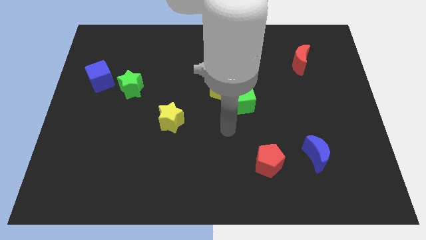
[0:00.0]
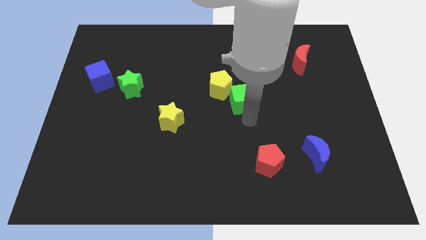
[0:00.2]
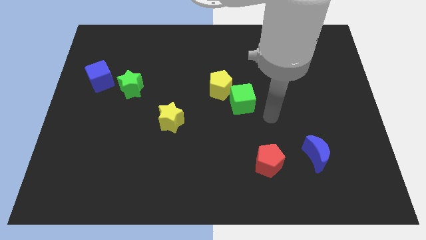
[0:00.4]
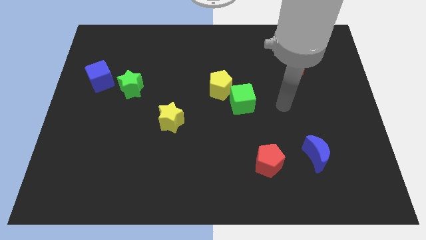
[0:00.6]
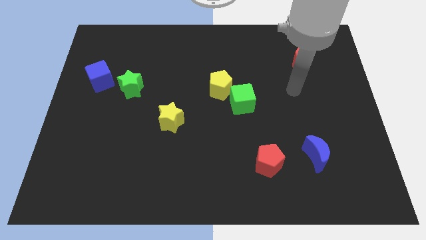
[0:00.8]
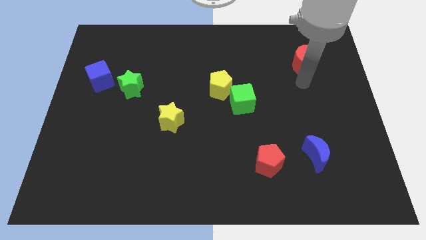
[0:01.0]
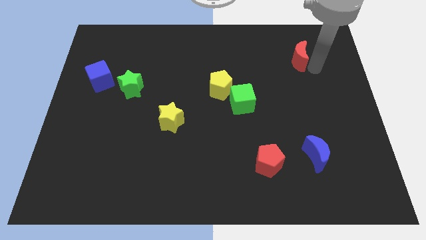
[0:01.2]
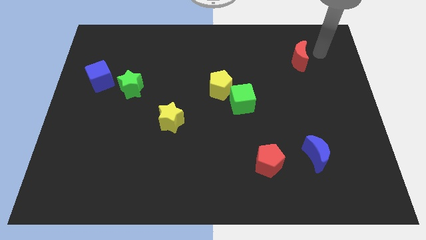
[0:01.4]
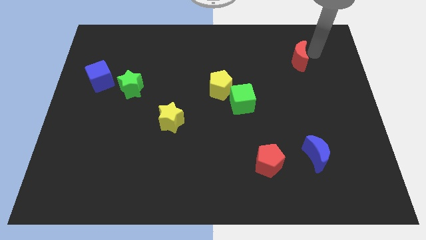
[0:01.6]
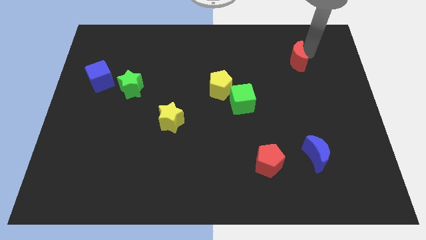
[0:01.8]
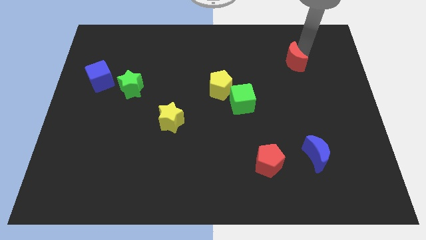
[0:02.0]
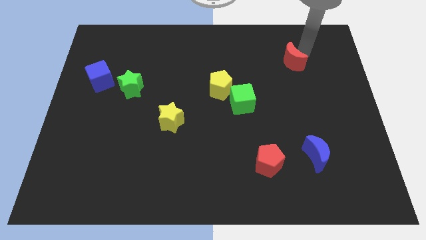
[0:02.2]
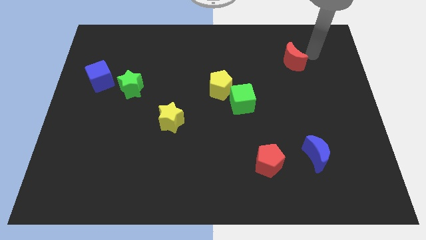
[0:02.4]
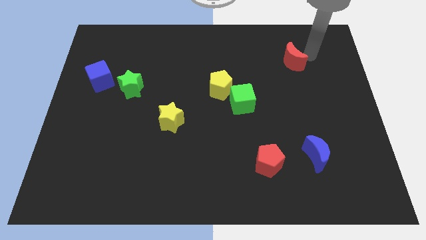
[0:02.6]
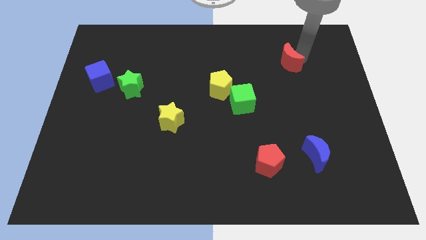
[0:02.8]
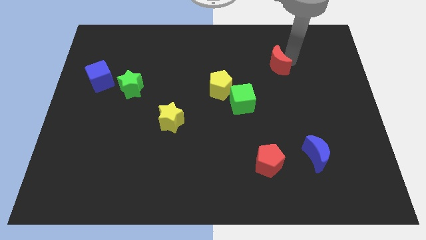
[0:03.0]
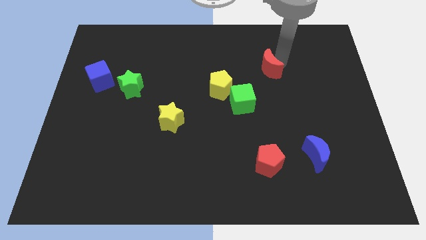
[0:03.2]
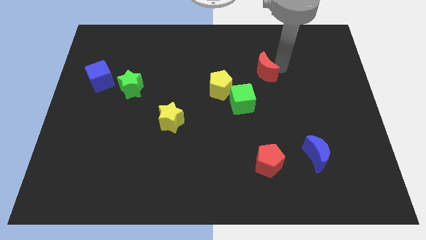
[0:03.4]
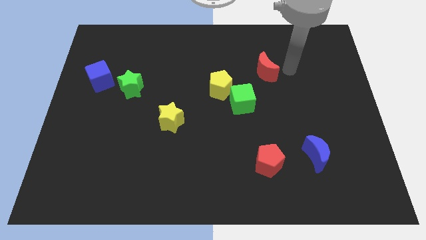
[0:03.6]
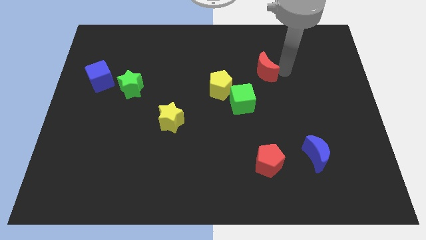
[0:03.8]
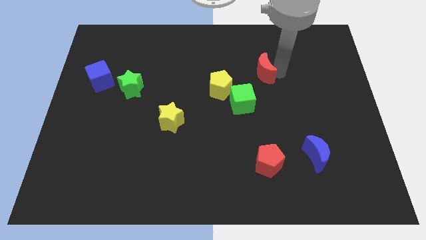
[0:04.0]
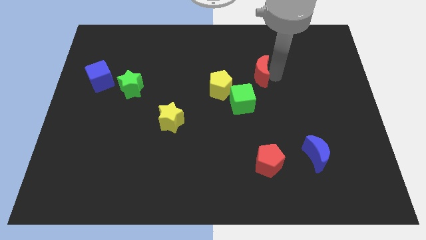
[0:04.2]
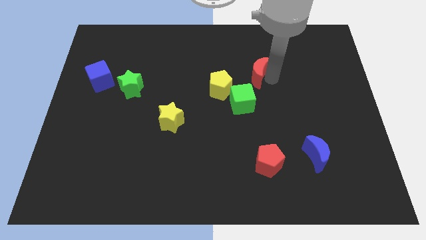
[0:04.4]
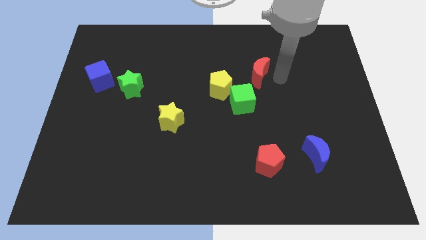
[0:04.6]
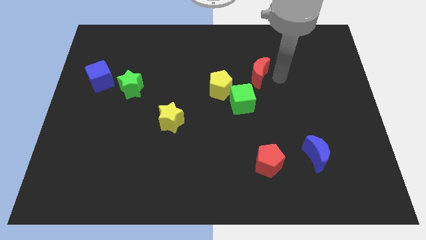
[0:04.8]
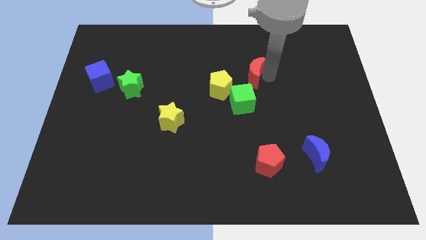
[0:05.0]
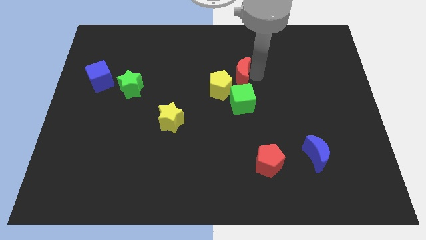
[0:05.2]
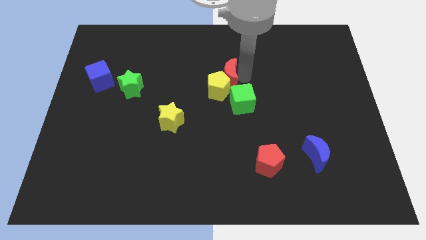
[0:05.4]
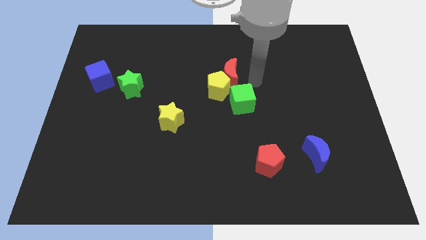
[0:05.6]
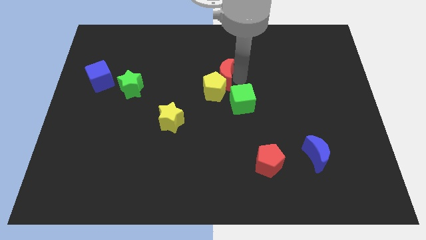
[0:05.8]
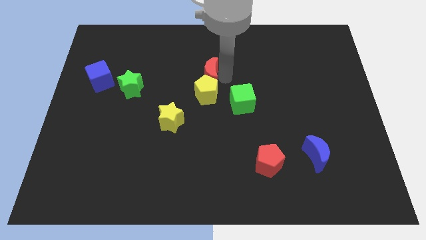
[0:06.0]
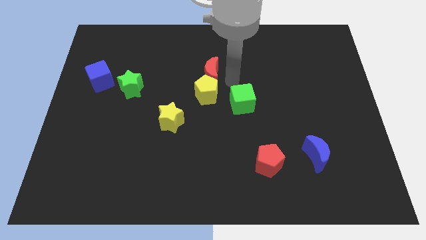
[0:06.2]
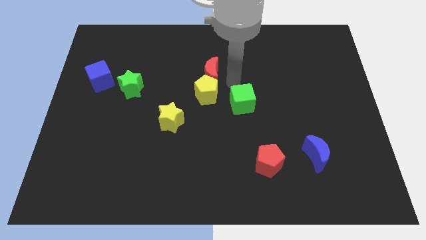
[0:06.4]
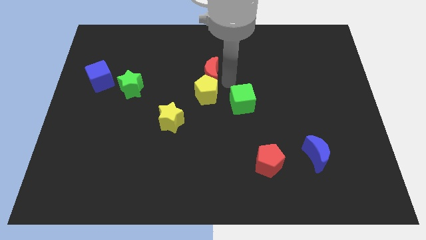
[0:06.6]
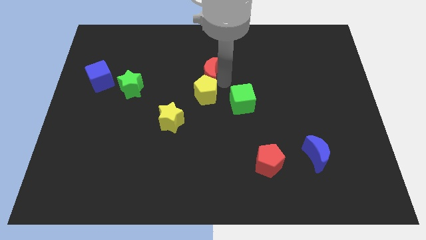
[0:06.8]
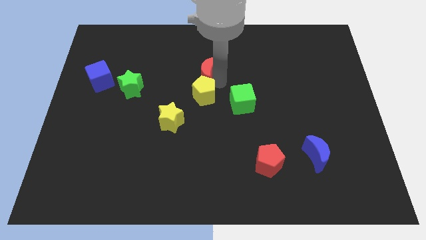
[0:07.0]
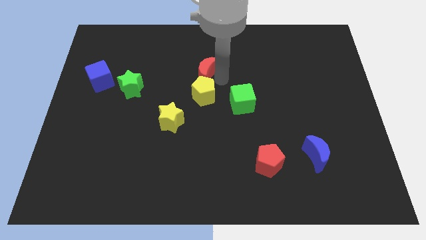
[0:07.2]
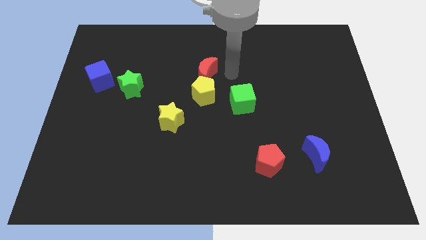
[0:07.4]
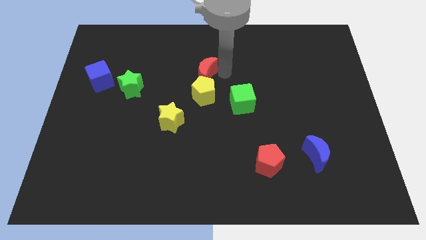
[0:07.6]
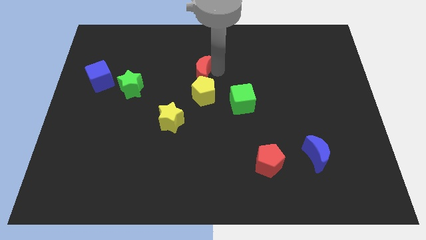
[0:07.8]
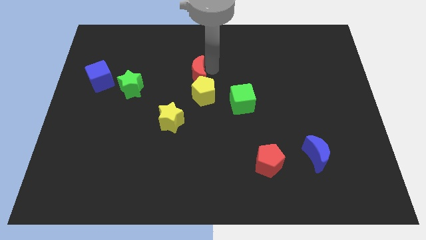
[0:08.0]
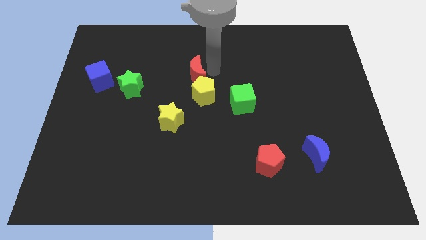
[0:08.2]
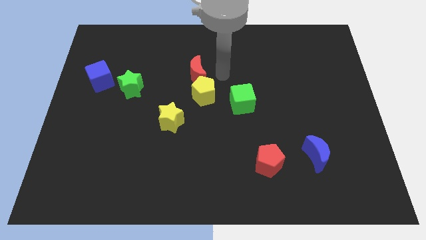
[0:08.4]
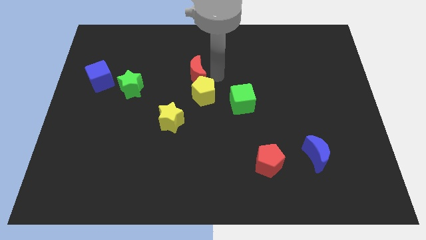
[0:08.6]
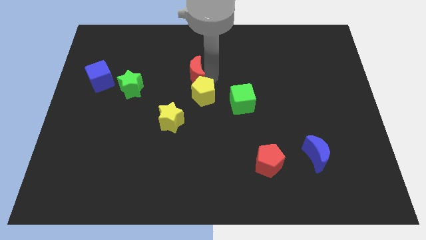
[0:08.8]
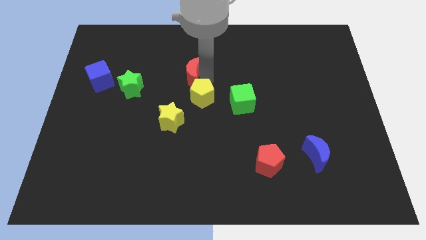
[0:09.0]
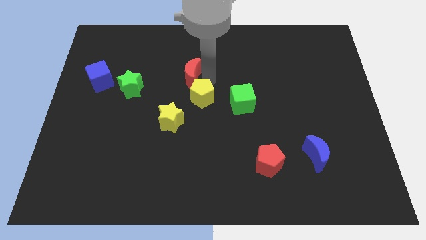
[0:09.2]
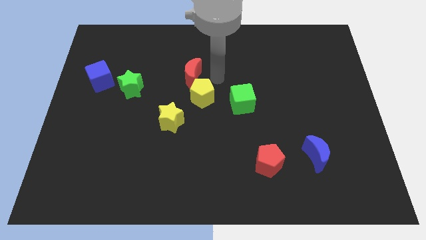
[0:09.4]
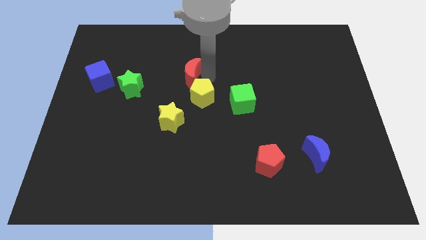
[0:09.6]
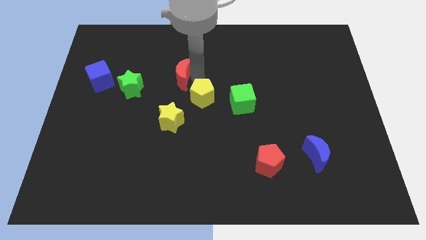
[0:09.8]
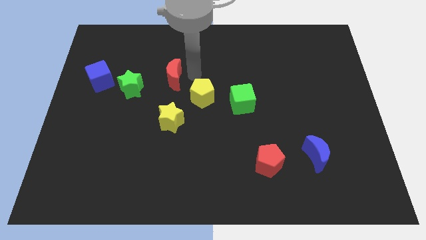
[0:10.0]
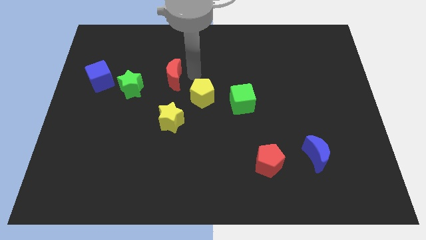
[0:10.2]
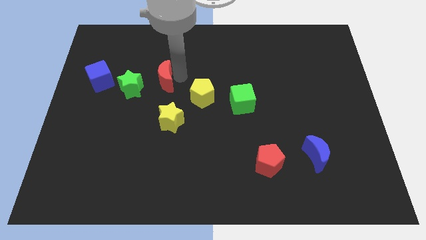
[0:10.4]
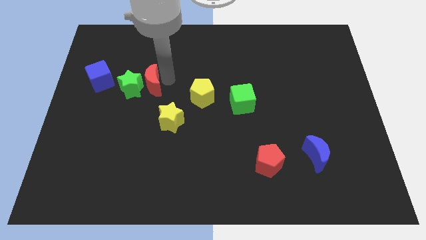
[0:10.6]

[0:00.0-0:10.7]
slide the red moon close to the green star

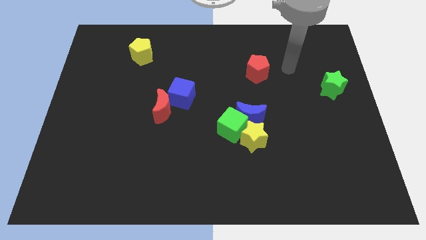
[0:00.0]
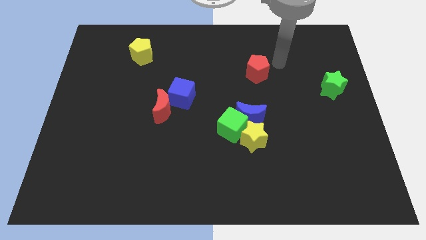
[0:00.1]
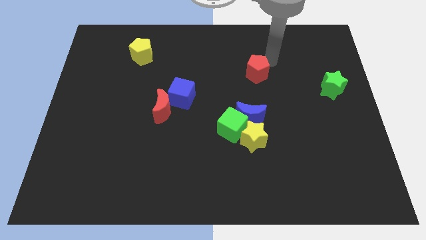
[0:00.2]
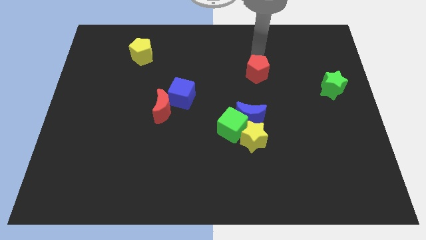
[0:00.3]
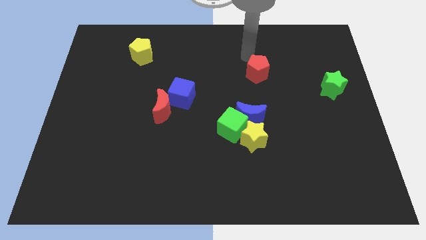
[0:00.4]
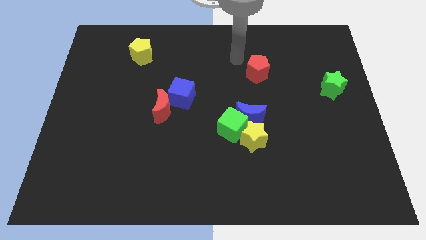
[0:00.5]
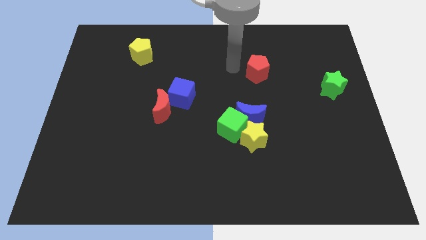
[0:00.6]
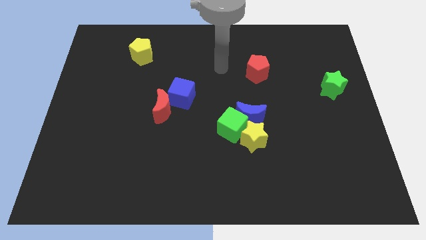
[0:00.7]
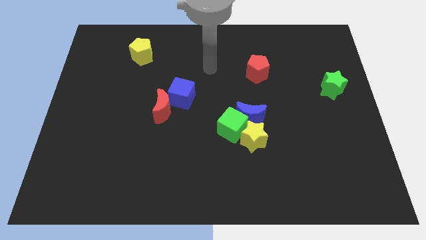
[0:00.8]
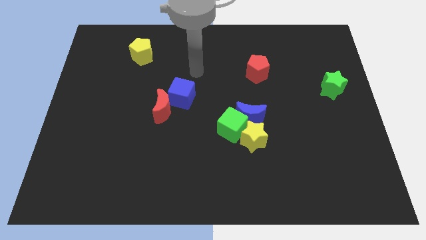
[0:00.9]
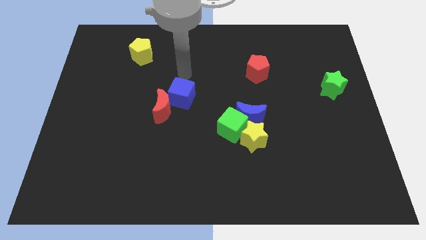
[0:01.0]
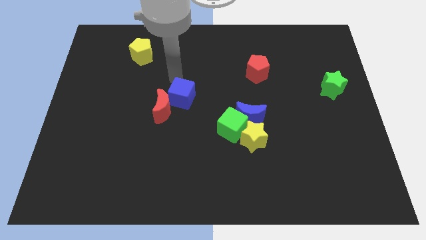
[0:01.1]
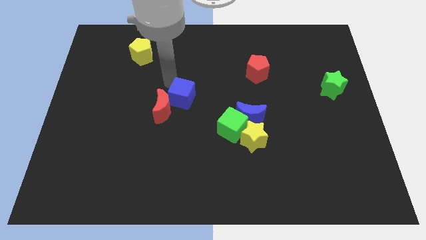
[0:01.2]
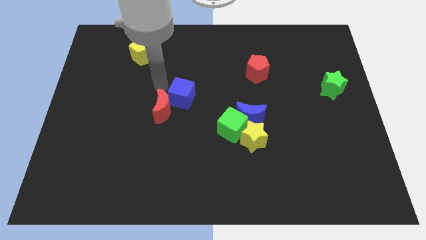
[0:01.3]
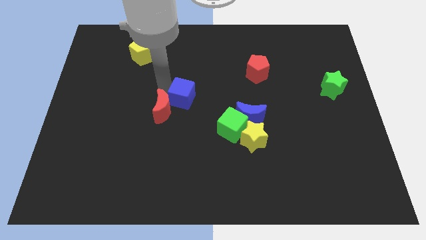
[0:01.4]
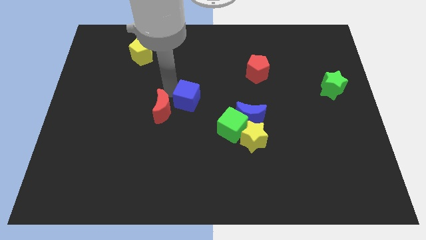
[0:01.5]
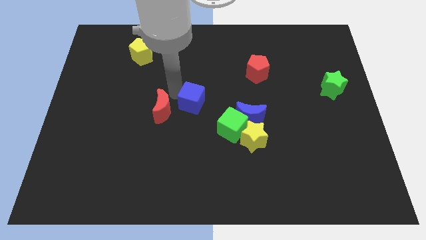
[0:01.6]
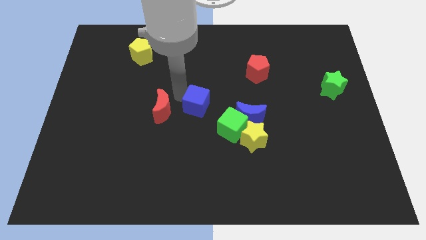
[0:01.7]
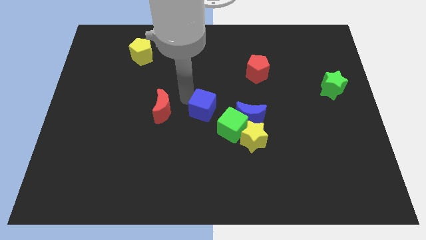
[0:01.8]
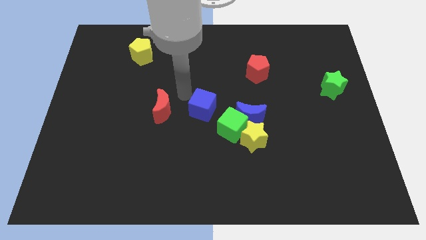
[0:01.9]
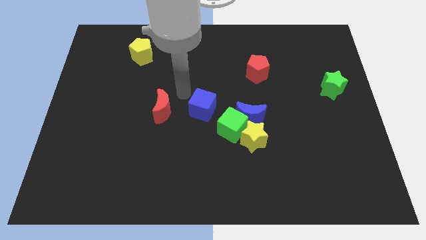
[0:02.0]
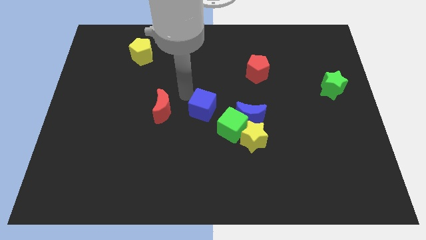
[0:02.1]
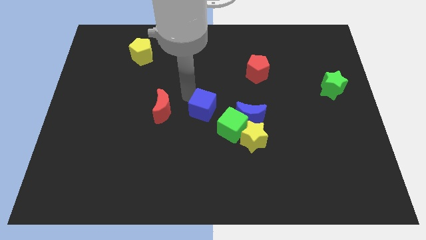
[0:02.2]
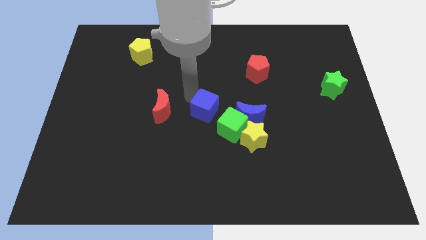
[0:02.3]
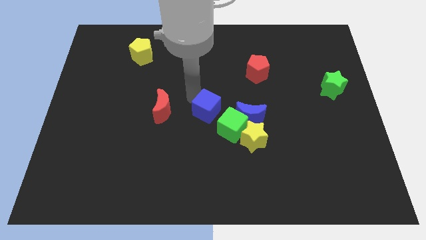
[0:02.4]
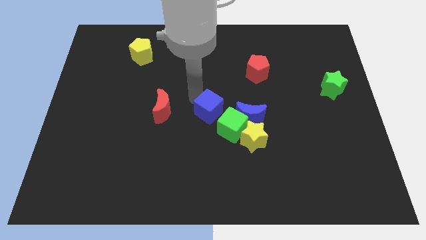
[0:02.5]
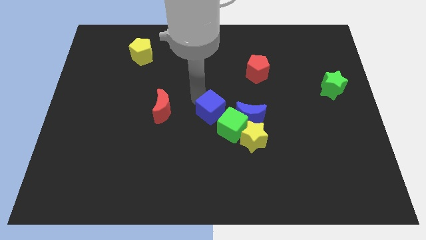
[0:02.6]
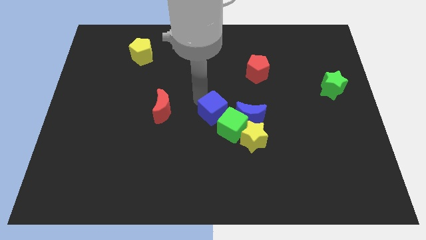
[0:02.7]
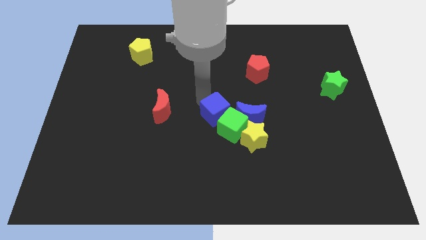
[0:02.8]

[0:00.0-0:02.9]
move the blue cube towards the green cube
